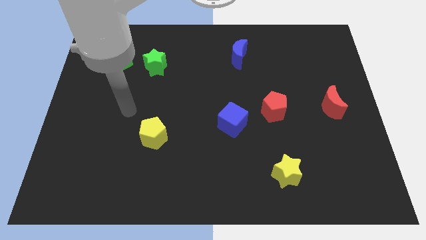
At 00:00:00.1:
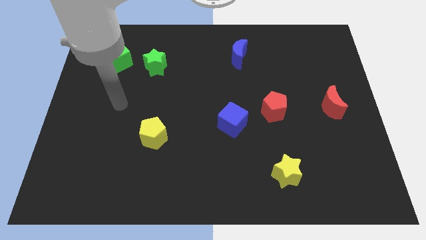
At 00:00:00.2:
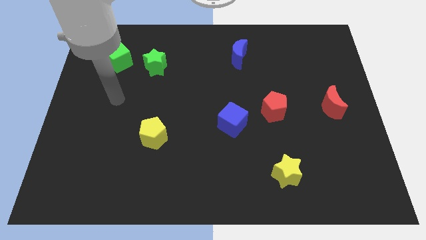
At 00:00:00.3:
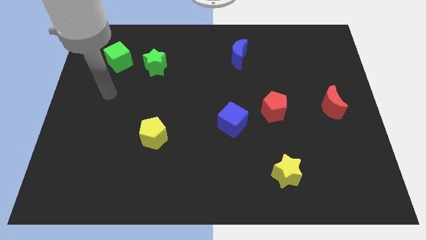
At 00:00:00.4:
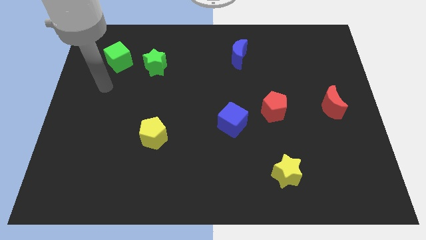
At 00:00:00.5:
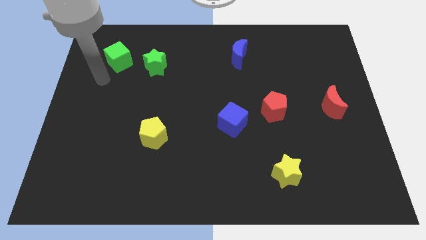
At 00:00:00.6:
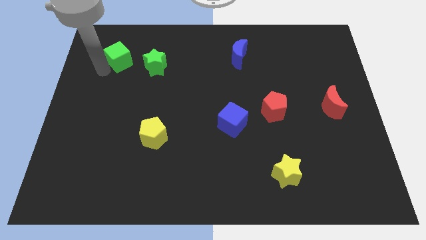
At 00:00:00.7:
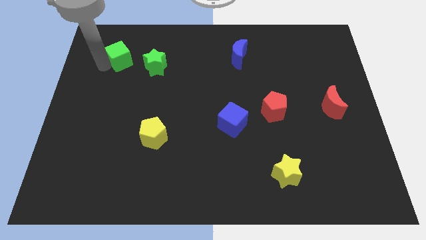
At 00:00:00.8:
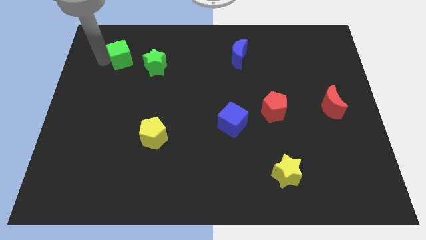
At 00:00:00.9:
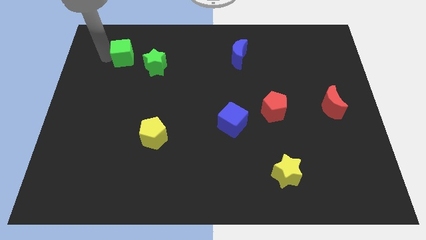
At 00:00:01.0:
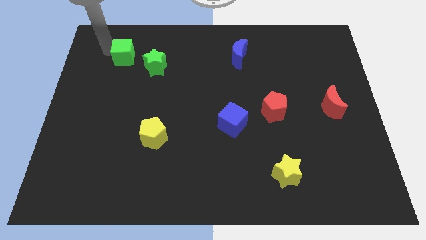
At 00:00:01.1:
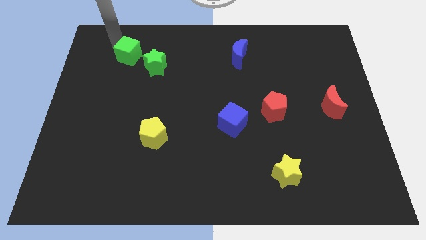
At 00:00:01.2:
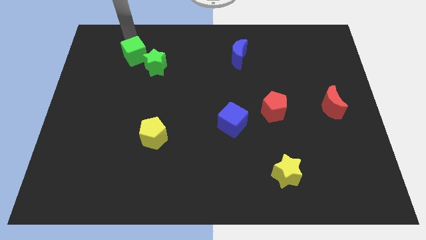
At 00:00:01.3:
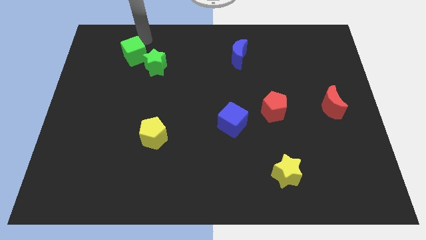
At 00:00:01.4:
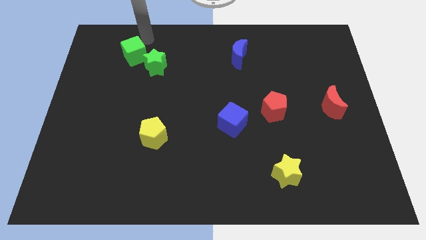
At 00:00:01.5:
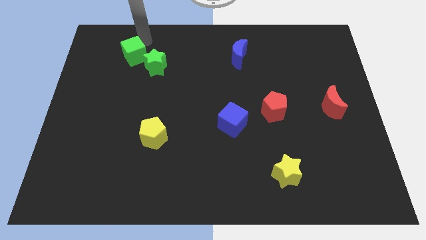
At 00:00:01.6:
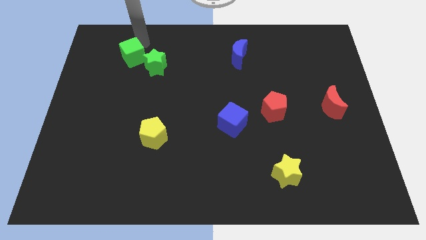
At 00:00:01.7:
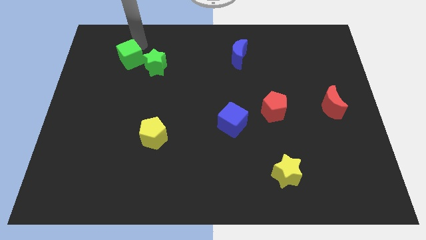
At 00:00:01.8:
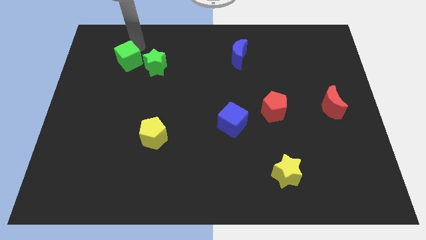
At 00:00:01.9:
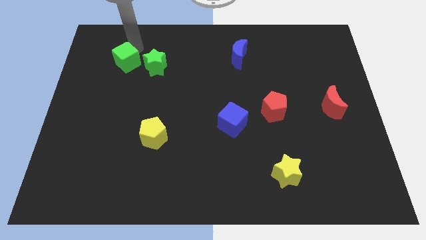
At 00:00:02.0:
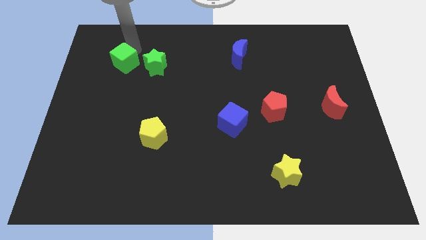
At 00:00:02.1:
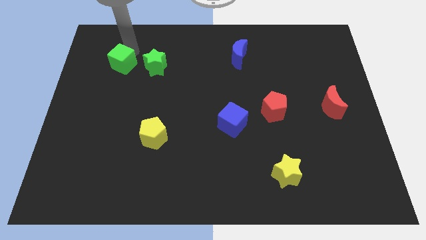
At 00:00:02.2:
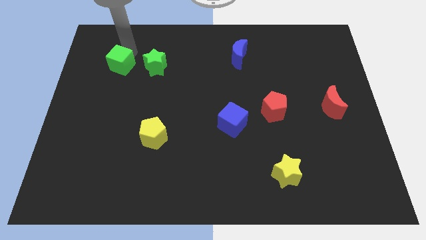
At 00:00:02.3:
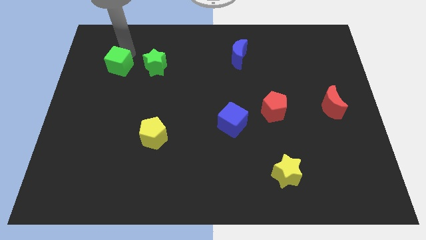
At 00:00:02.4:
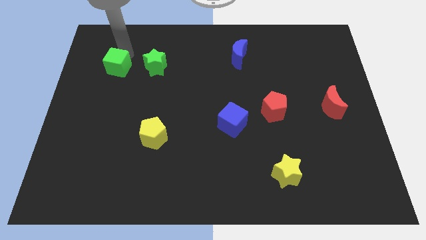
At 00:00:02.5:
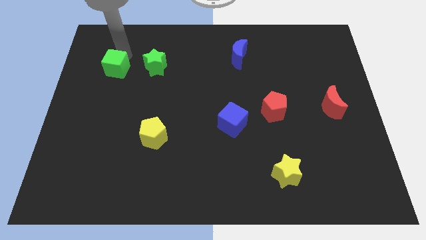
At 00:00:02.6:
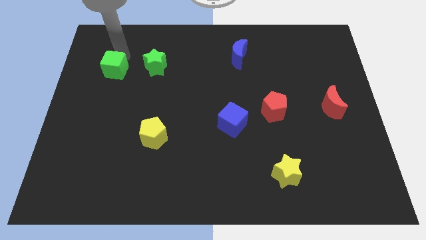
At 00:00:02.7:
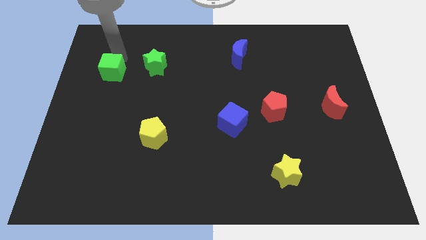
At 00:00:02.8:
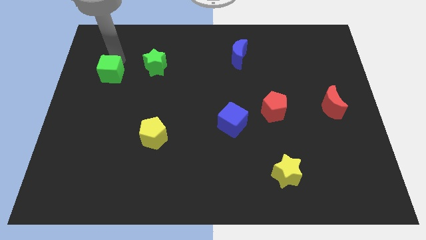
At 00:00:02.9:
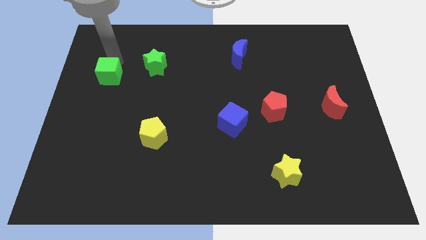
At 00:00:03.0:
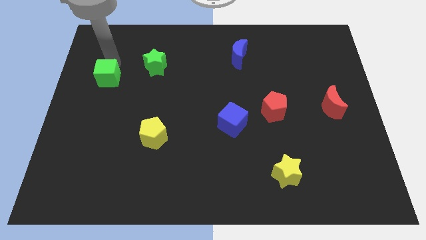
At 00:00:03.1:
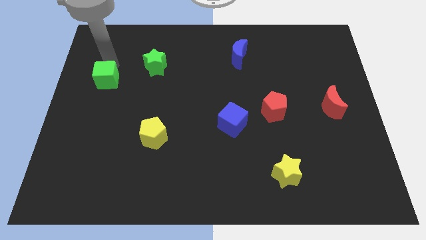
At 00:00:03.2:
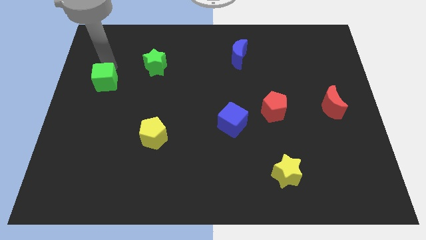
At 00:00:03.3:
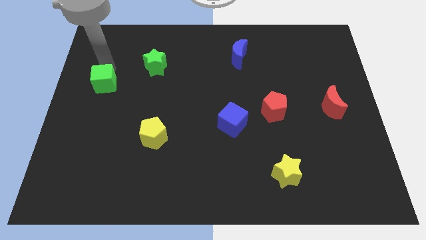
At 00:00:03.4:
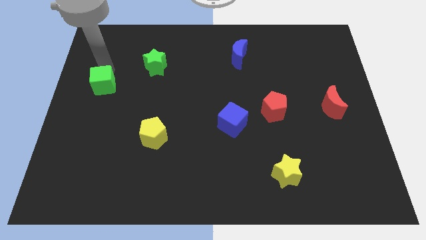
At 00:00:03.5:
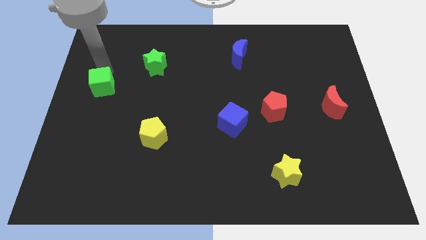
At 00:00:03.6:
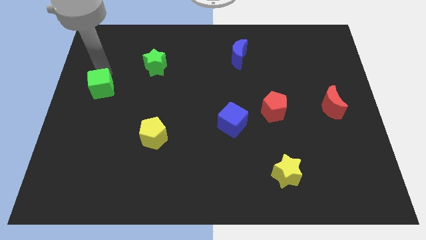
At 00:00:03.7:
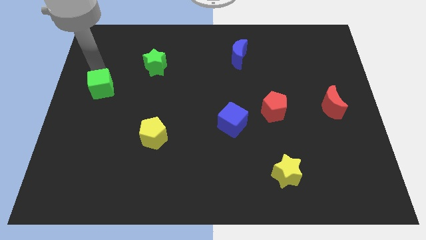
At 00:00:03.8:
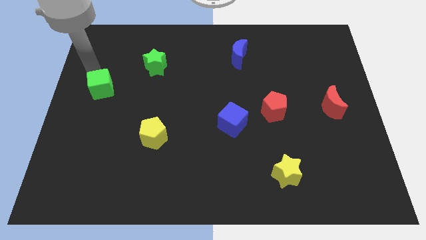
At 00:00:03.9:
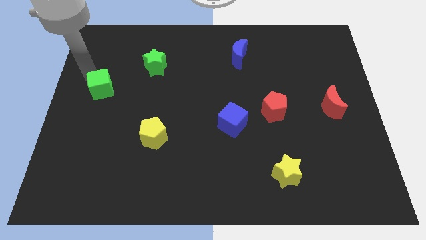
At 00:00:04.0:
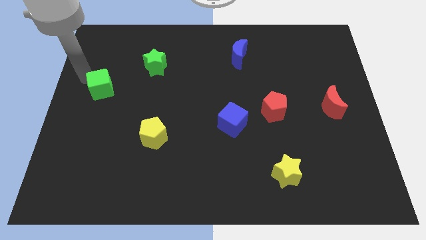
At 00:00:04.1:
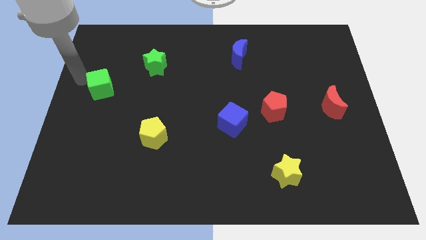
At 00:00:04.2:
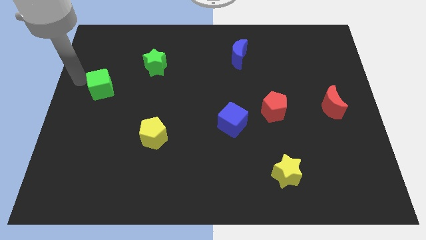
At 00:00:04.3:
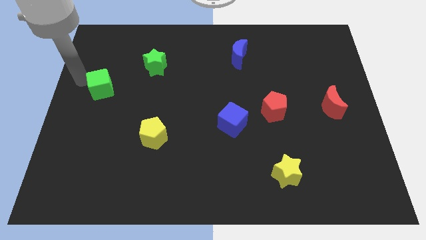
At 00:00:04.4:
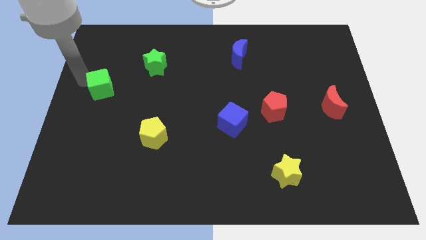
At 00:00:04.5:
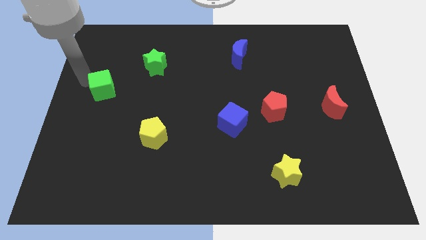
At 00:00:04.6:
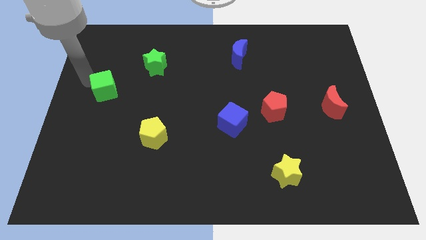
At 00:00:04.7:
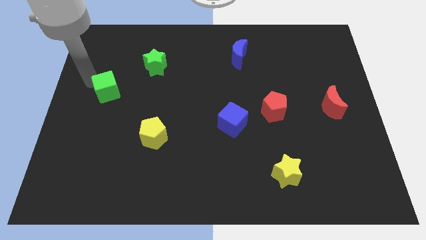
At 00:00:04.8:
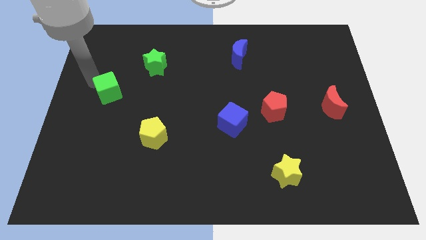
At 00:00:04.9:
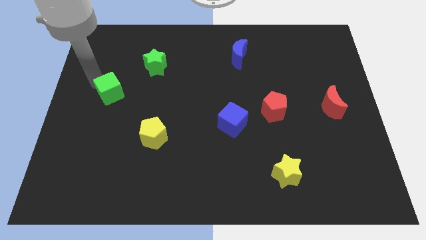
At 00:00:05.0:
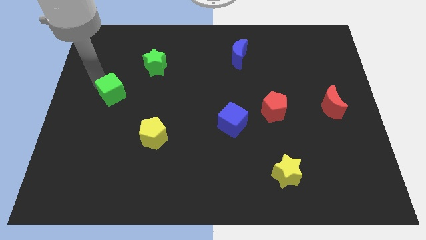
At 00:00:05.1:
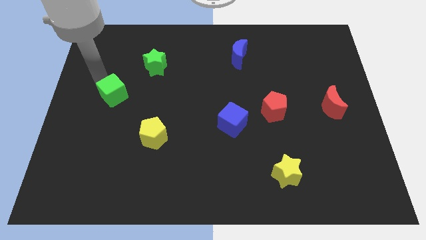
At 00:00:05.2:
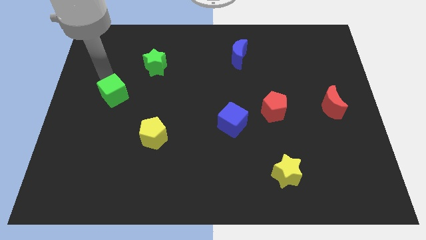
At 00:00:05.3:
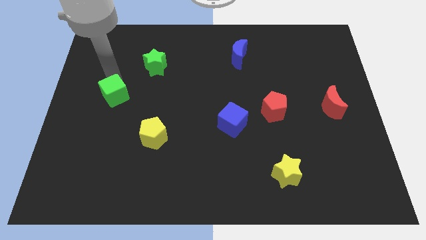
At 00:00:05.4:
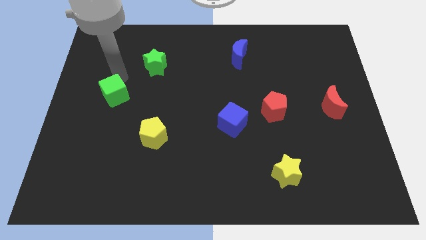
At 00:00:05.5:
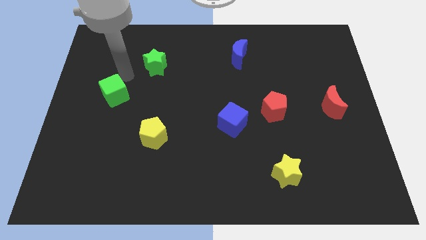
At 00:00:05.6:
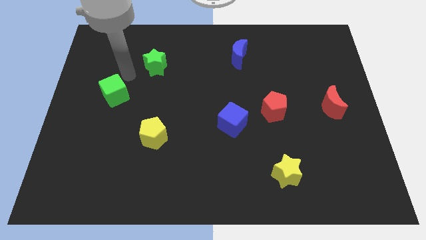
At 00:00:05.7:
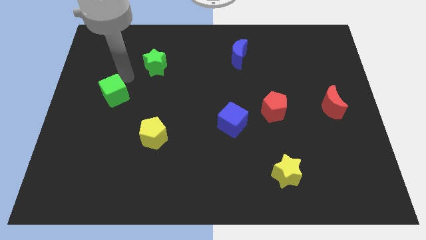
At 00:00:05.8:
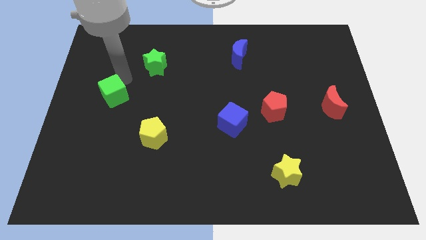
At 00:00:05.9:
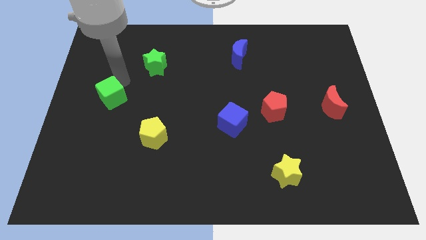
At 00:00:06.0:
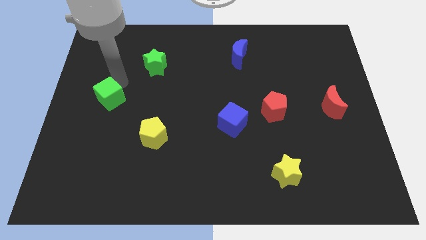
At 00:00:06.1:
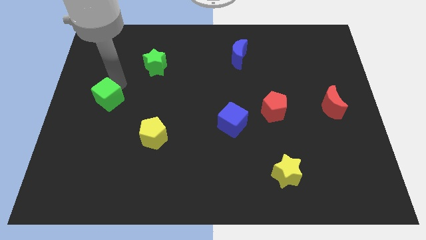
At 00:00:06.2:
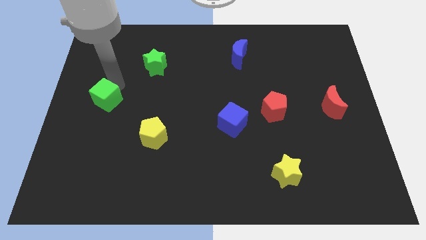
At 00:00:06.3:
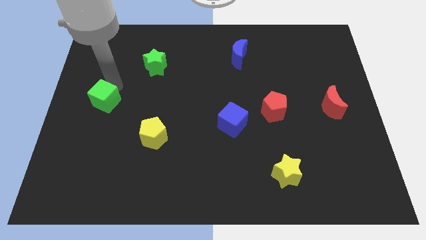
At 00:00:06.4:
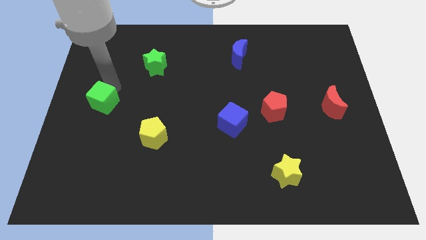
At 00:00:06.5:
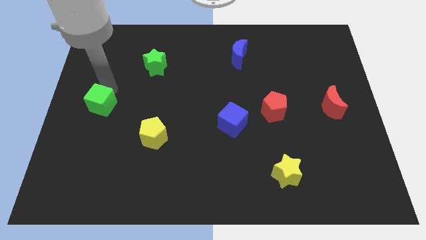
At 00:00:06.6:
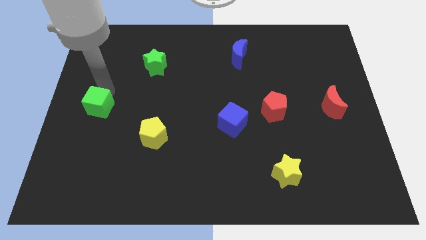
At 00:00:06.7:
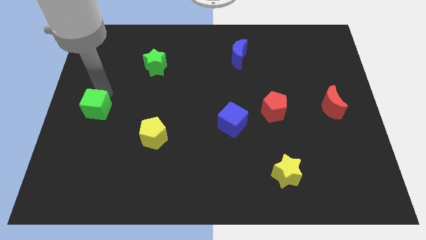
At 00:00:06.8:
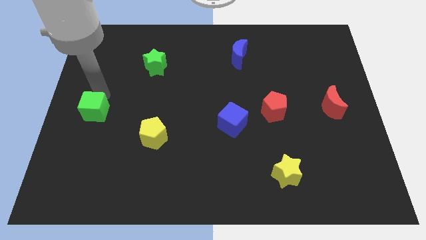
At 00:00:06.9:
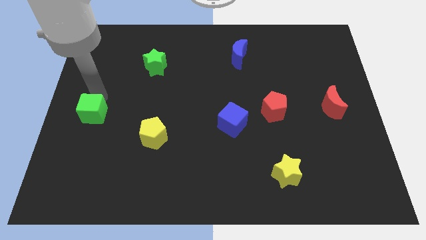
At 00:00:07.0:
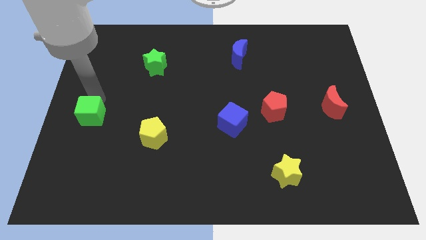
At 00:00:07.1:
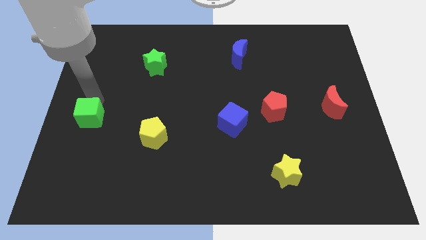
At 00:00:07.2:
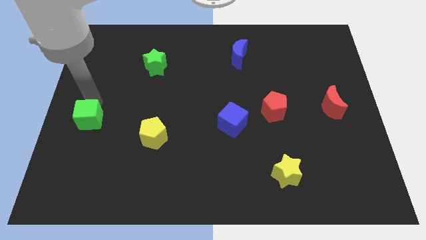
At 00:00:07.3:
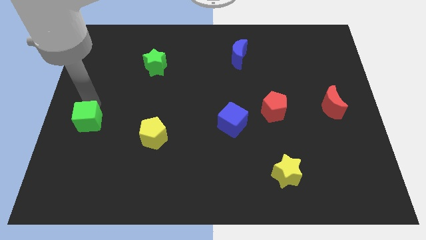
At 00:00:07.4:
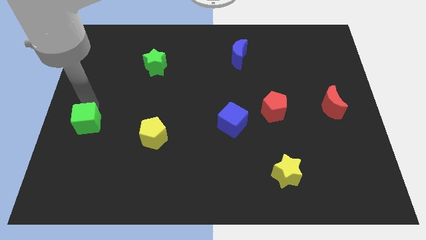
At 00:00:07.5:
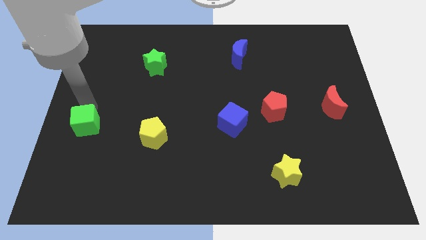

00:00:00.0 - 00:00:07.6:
slide the green cube down

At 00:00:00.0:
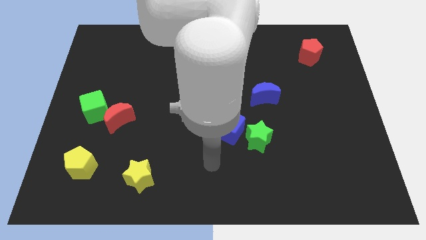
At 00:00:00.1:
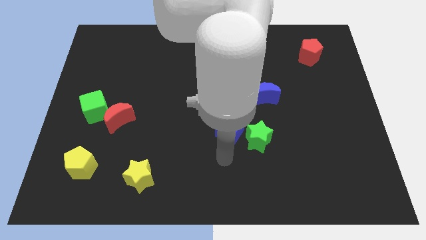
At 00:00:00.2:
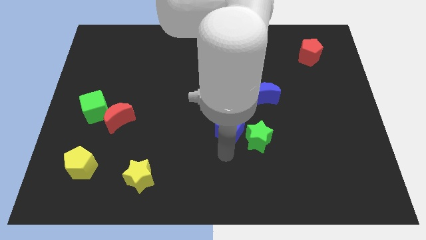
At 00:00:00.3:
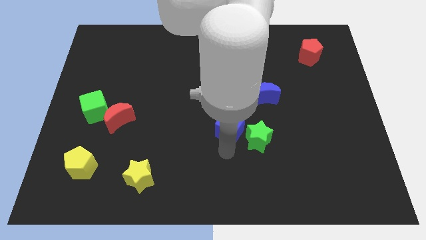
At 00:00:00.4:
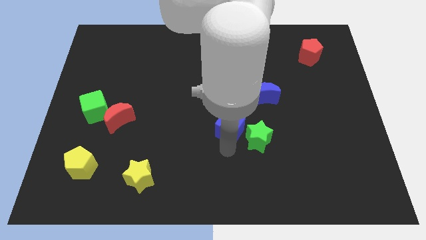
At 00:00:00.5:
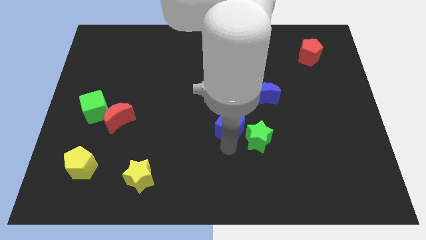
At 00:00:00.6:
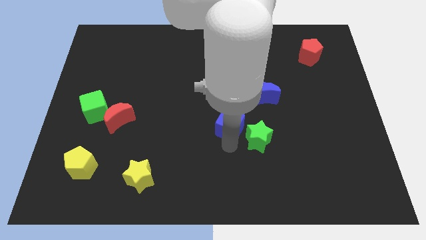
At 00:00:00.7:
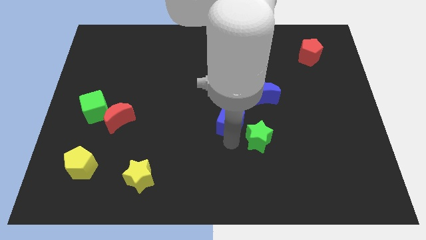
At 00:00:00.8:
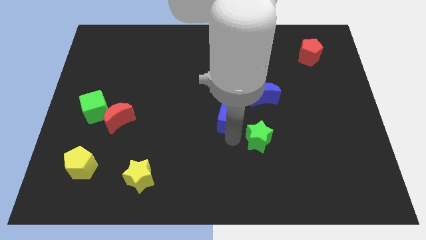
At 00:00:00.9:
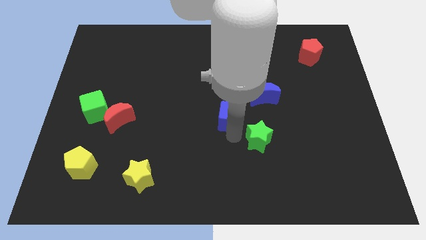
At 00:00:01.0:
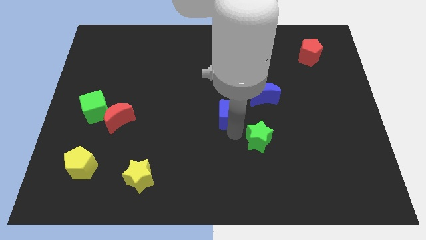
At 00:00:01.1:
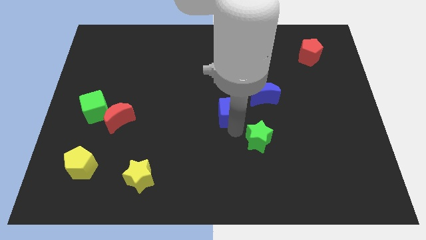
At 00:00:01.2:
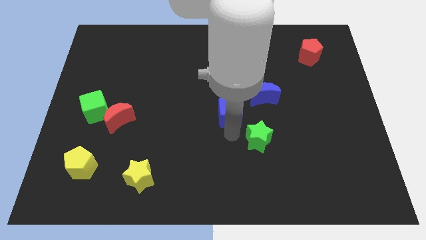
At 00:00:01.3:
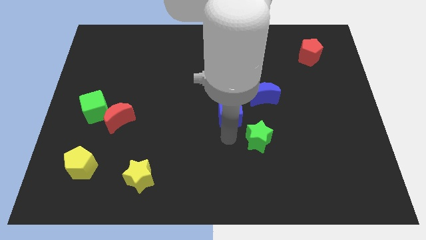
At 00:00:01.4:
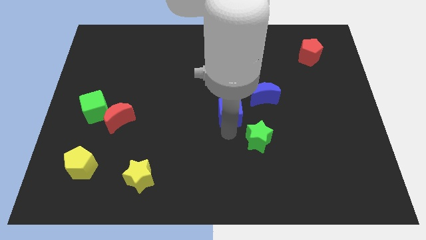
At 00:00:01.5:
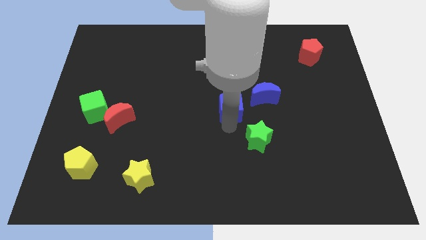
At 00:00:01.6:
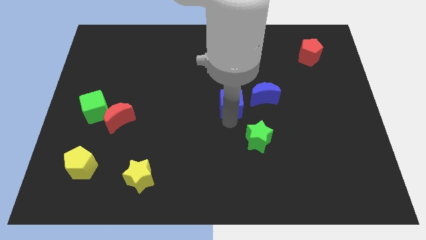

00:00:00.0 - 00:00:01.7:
push the blue cube a little bit up
